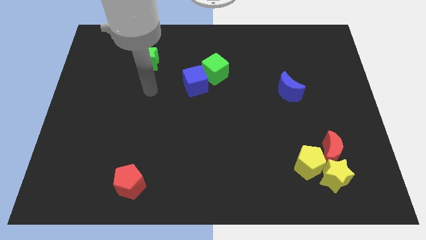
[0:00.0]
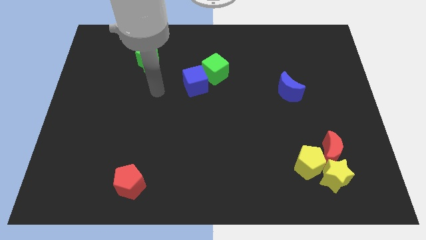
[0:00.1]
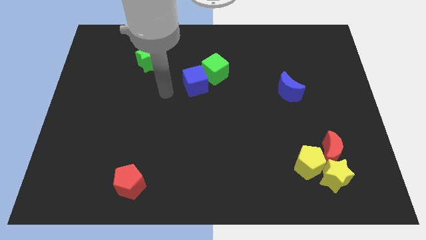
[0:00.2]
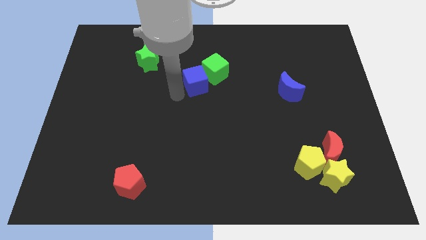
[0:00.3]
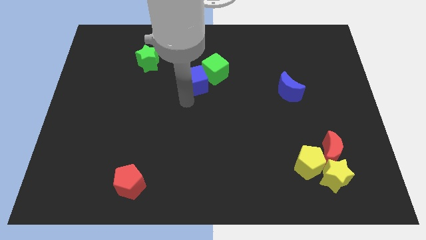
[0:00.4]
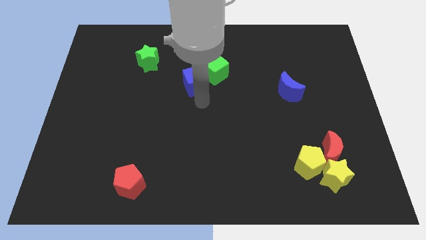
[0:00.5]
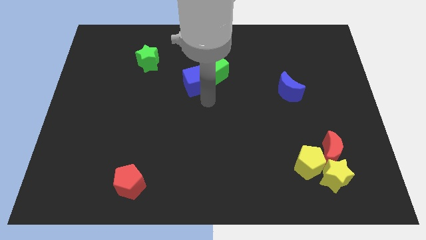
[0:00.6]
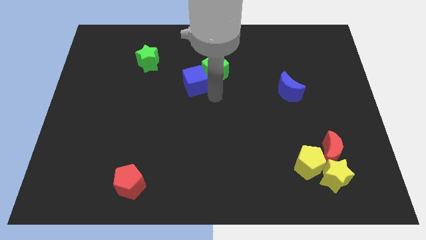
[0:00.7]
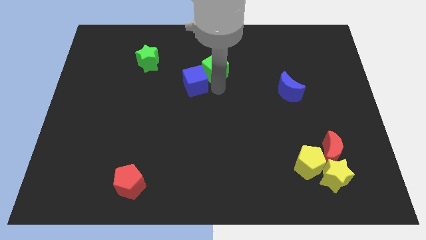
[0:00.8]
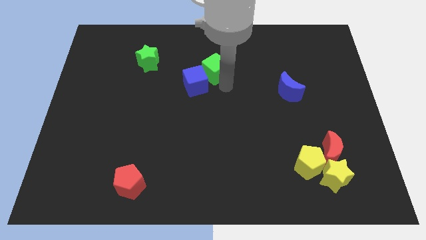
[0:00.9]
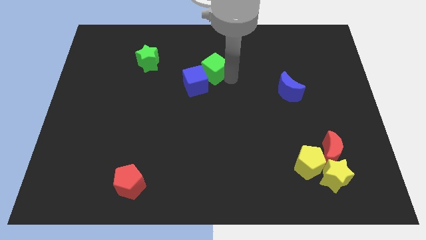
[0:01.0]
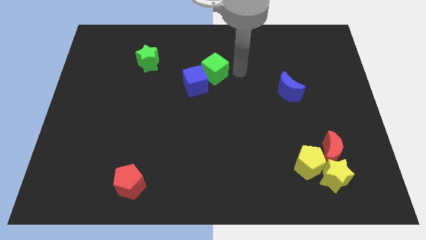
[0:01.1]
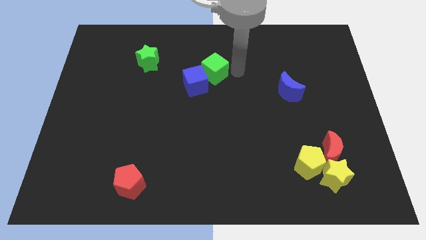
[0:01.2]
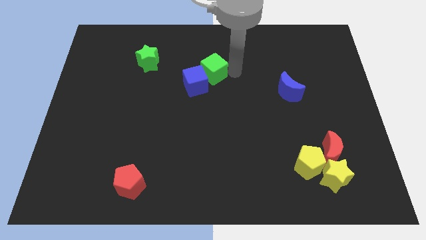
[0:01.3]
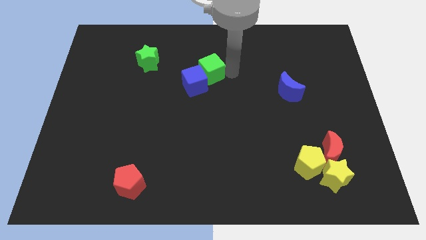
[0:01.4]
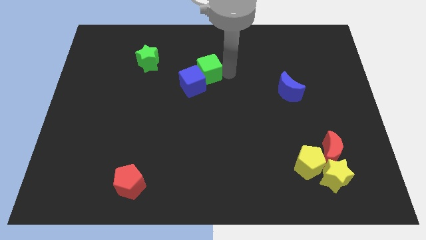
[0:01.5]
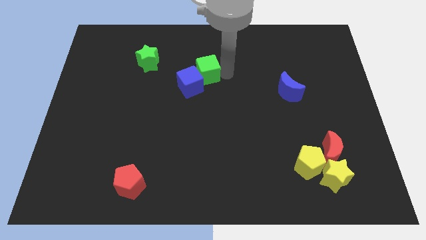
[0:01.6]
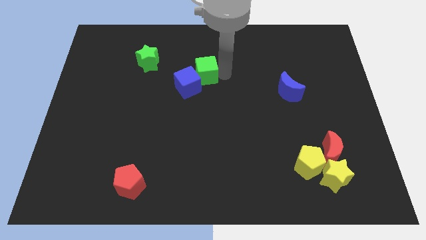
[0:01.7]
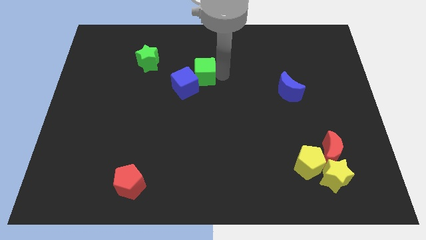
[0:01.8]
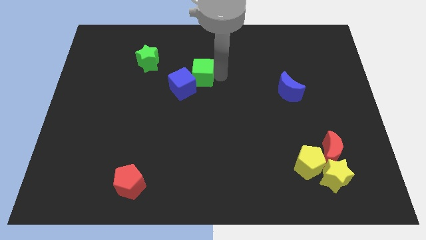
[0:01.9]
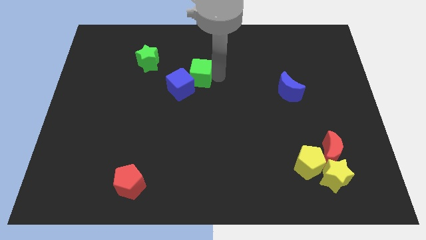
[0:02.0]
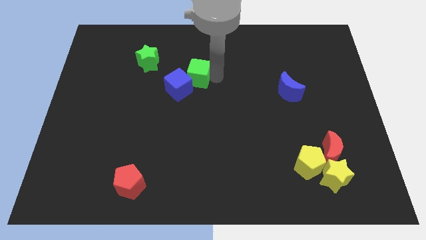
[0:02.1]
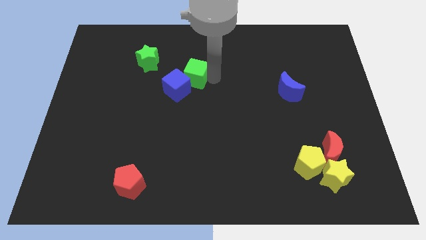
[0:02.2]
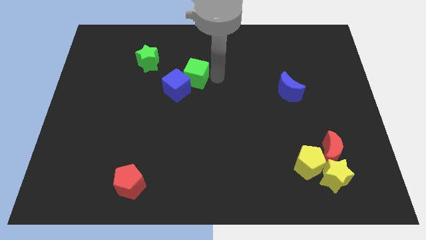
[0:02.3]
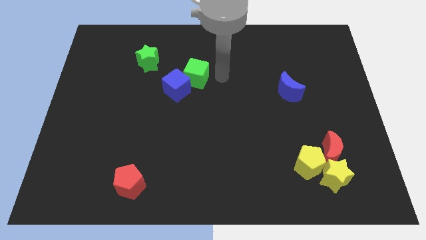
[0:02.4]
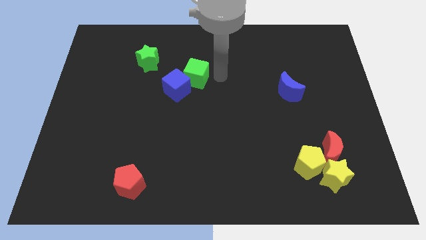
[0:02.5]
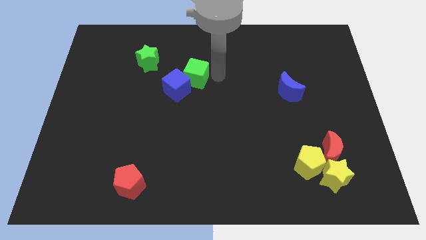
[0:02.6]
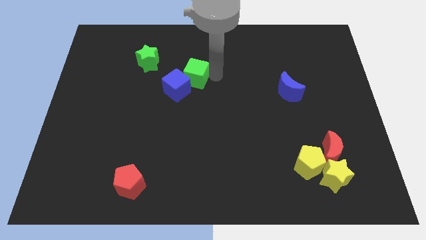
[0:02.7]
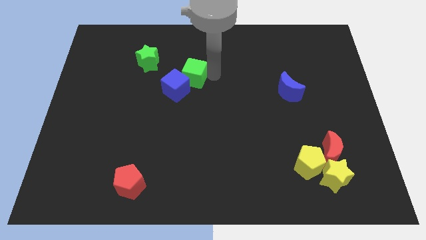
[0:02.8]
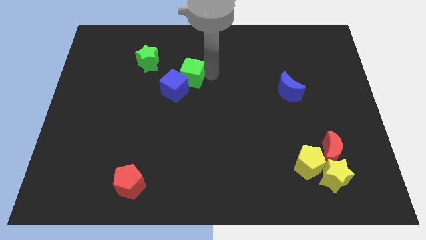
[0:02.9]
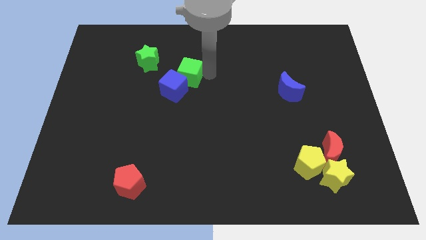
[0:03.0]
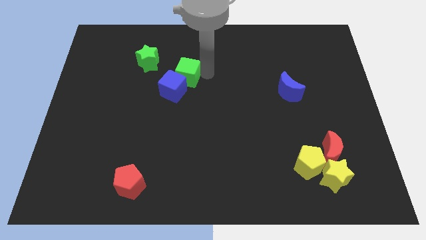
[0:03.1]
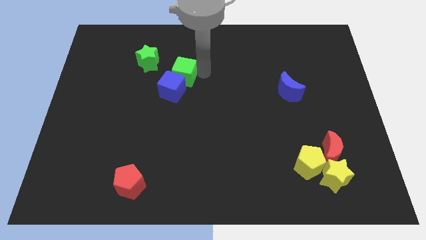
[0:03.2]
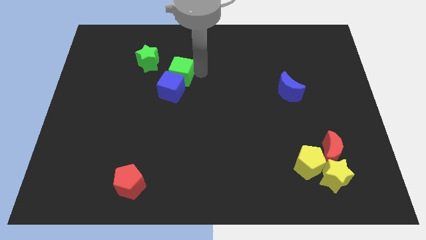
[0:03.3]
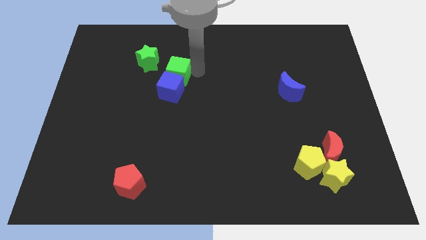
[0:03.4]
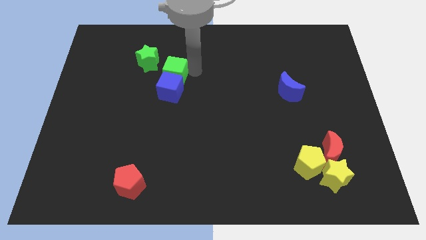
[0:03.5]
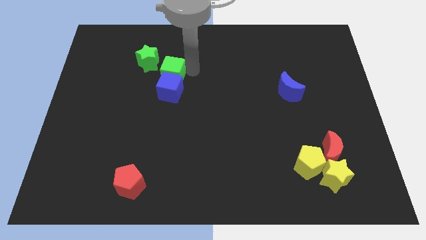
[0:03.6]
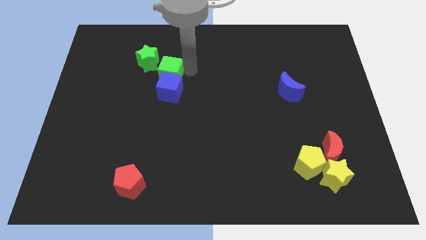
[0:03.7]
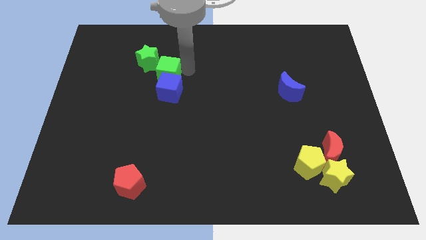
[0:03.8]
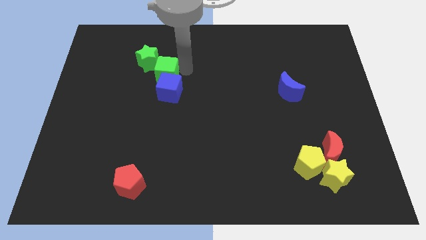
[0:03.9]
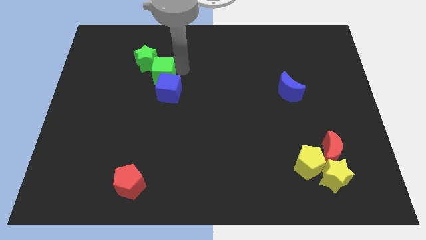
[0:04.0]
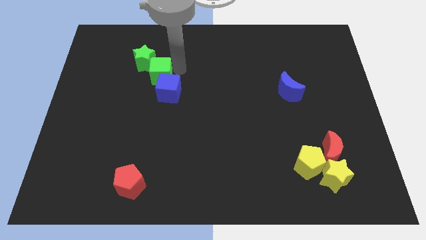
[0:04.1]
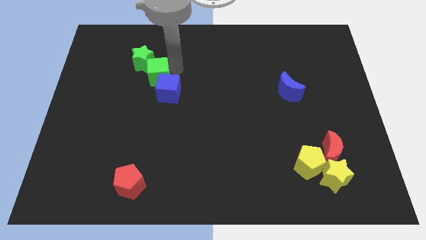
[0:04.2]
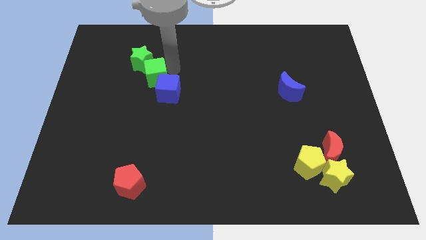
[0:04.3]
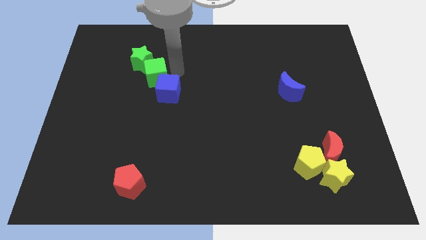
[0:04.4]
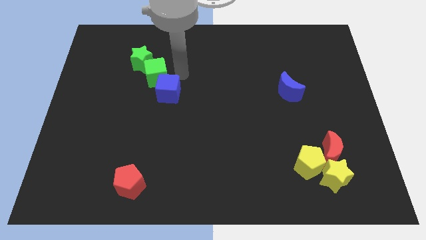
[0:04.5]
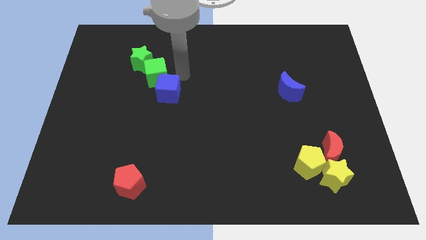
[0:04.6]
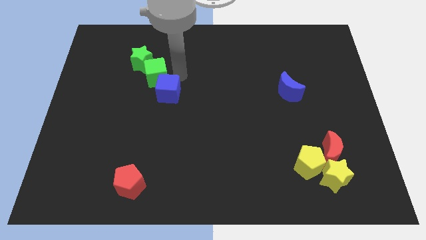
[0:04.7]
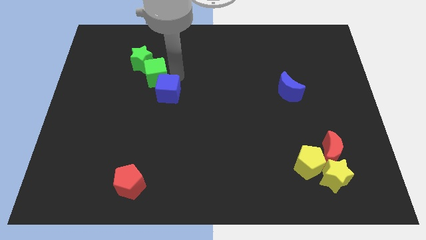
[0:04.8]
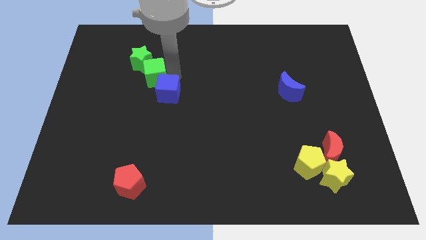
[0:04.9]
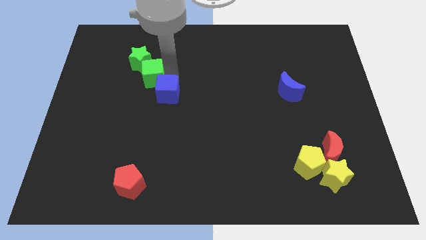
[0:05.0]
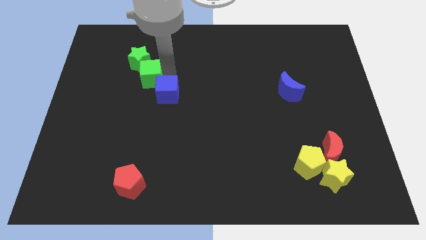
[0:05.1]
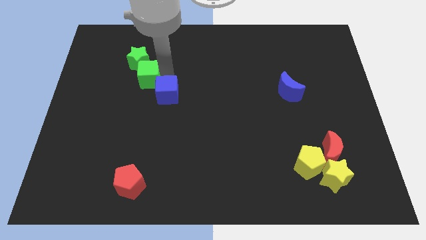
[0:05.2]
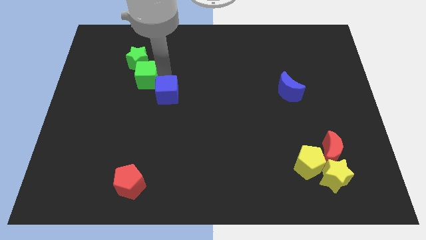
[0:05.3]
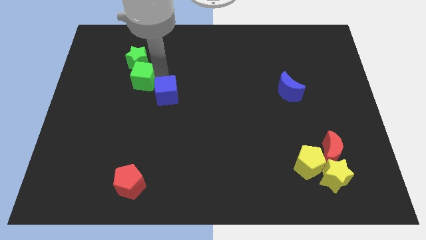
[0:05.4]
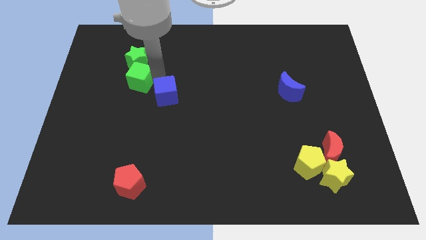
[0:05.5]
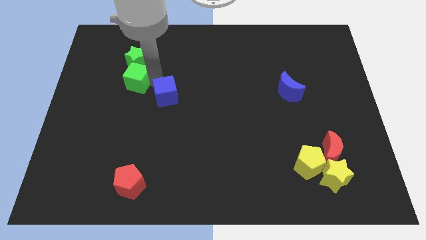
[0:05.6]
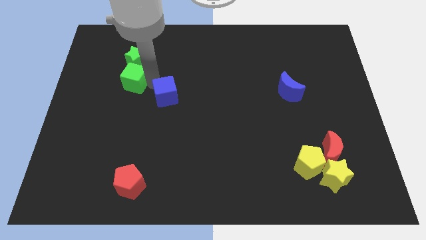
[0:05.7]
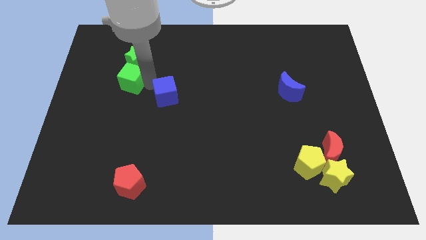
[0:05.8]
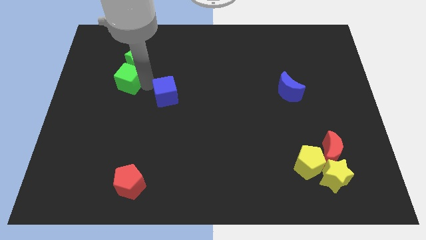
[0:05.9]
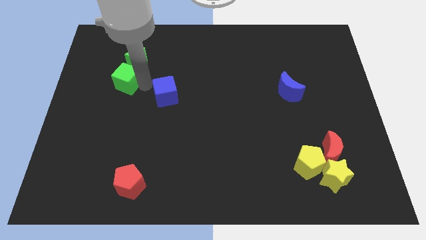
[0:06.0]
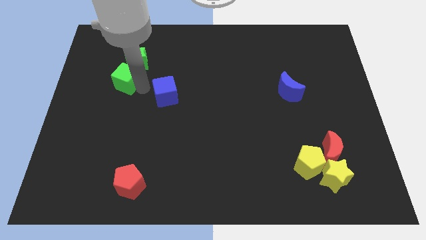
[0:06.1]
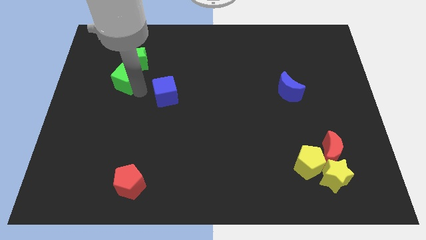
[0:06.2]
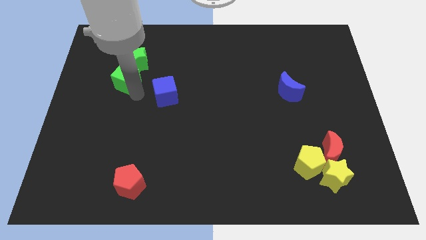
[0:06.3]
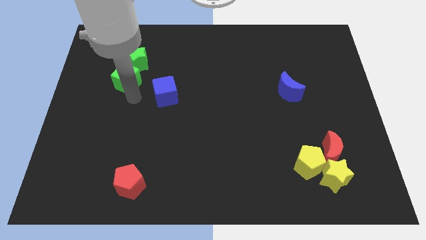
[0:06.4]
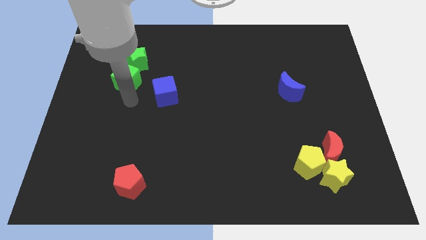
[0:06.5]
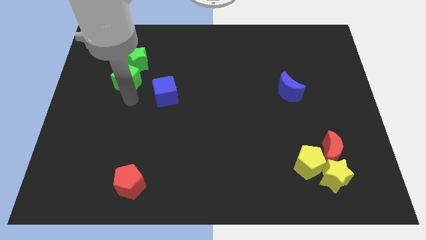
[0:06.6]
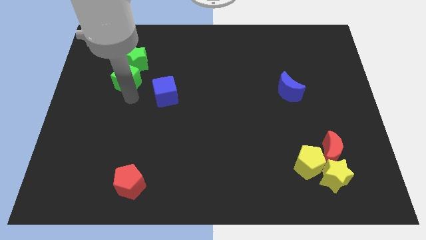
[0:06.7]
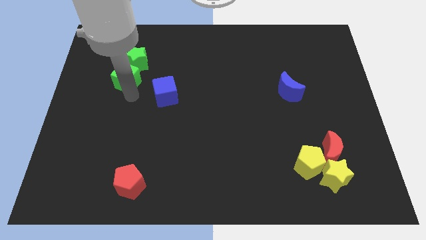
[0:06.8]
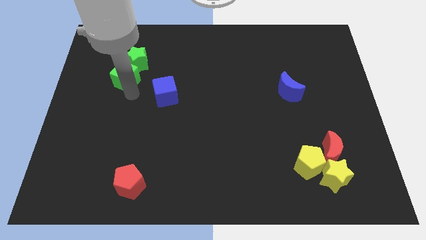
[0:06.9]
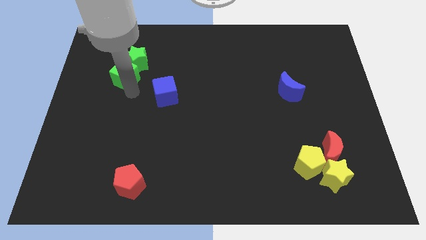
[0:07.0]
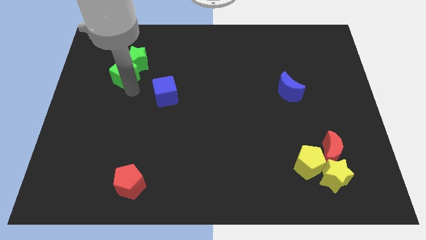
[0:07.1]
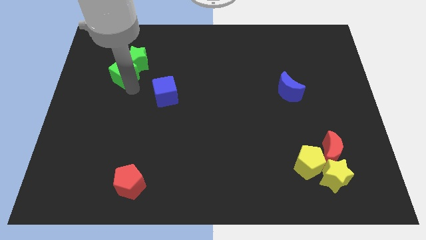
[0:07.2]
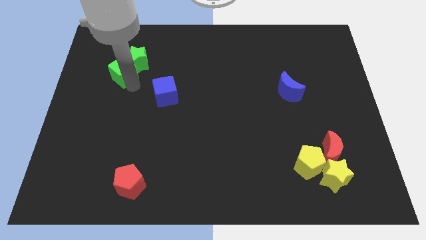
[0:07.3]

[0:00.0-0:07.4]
move the green cube to the left of the green star
